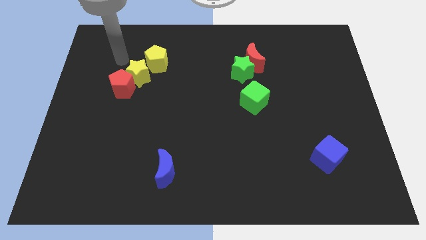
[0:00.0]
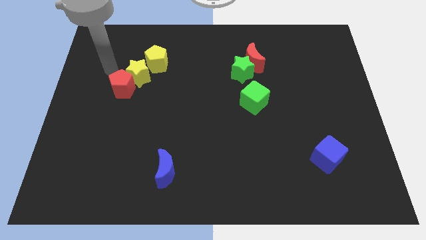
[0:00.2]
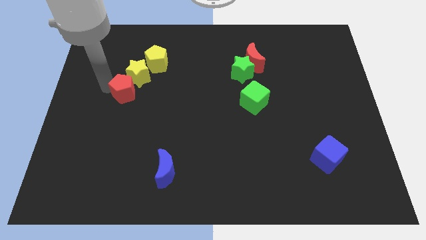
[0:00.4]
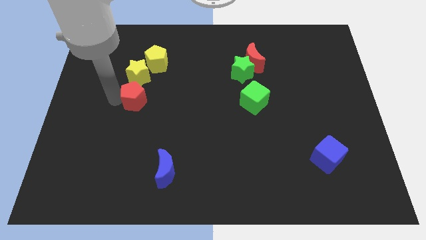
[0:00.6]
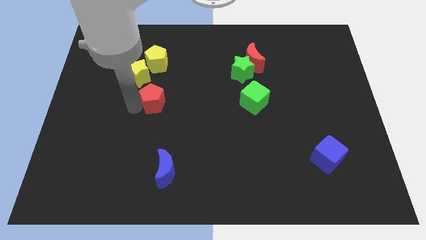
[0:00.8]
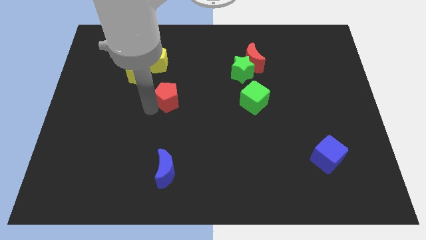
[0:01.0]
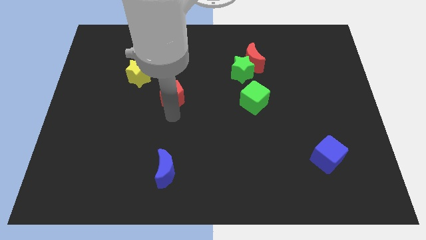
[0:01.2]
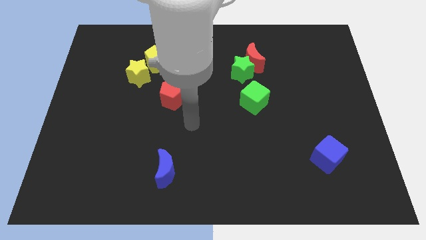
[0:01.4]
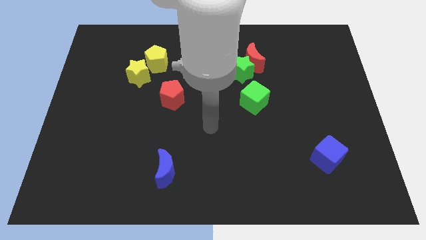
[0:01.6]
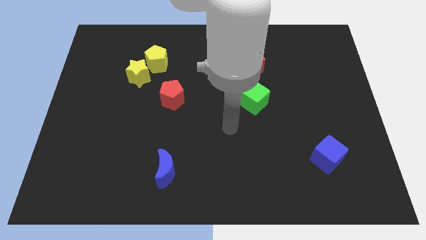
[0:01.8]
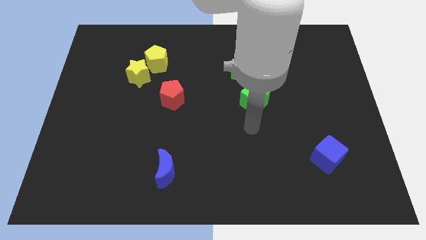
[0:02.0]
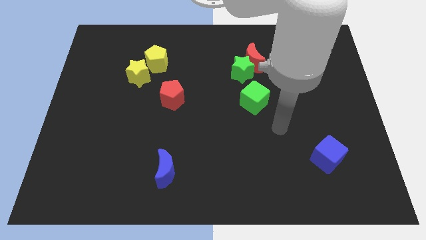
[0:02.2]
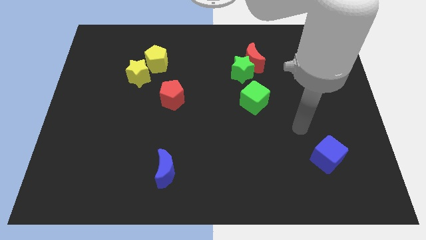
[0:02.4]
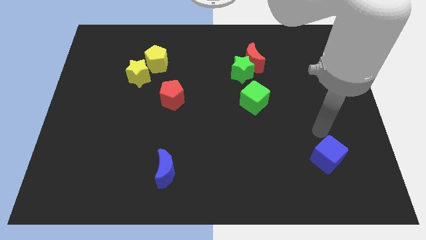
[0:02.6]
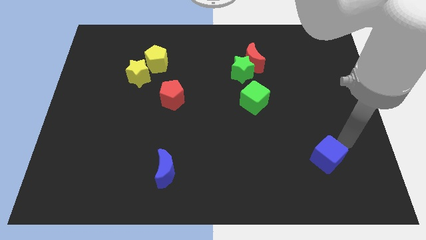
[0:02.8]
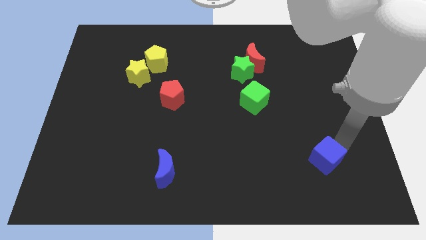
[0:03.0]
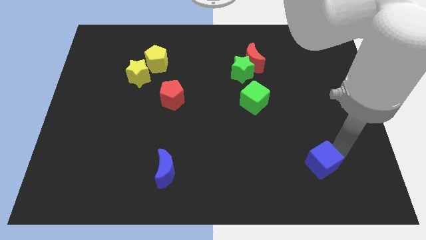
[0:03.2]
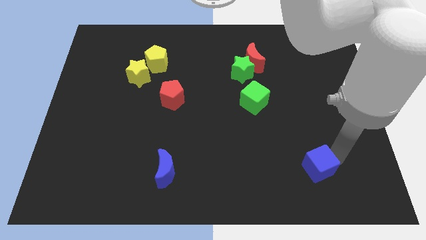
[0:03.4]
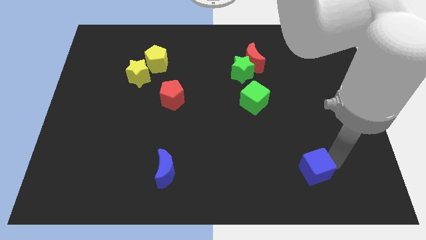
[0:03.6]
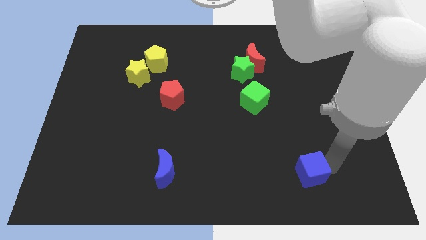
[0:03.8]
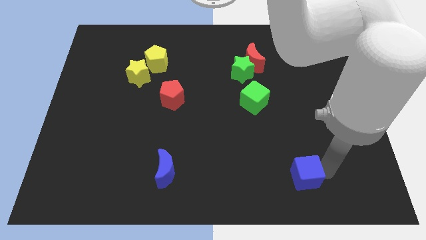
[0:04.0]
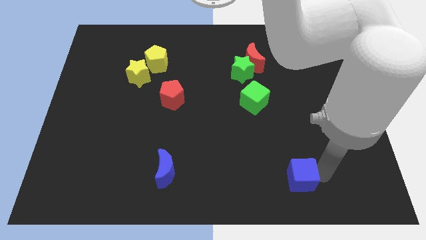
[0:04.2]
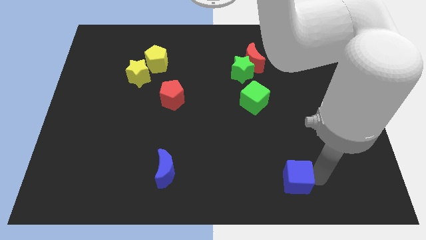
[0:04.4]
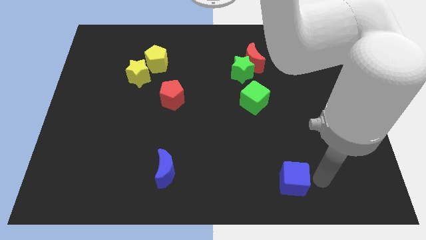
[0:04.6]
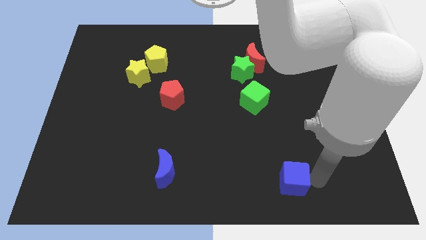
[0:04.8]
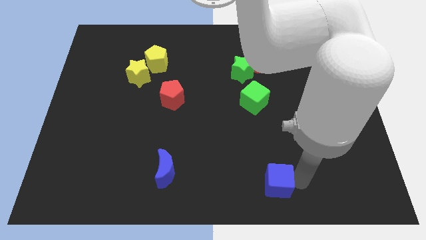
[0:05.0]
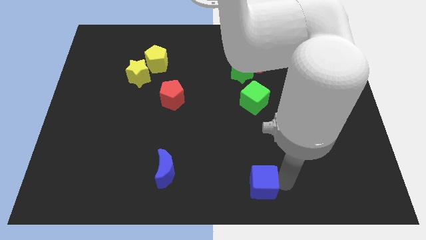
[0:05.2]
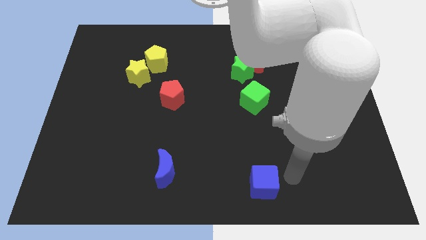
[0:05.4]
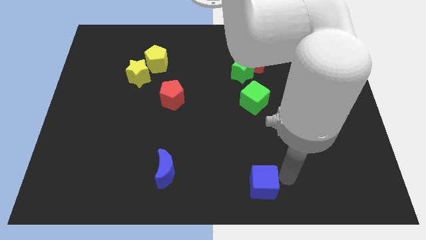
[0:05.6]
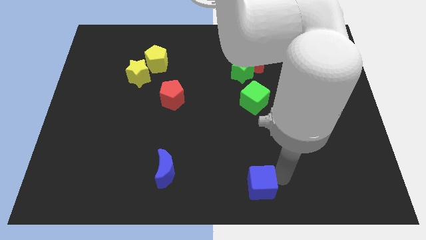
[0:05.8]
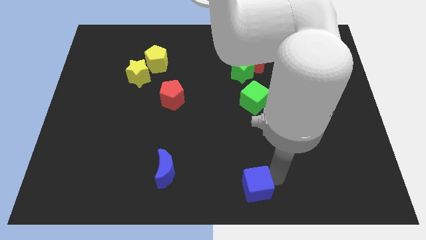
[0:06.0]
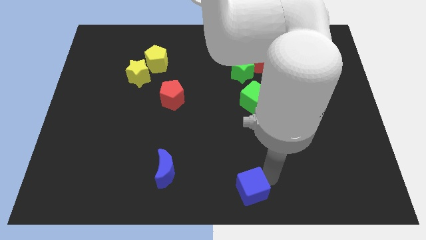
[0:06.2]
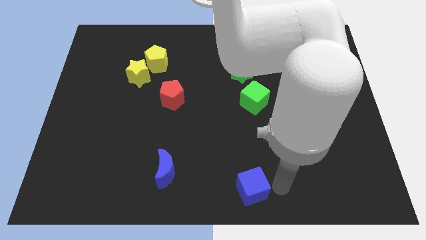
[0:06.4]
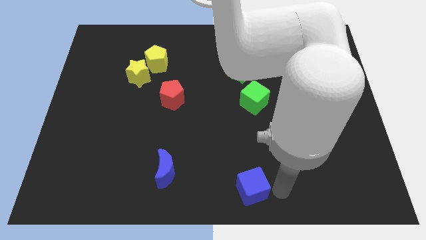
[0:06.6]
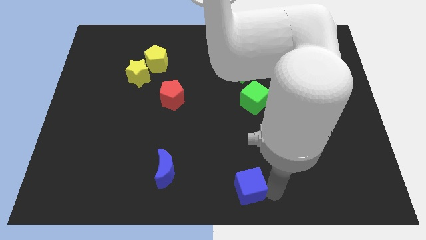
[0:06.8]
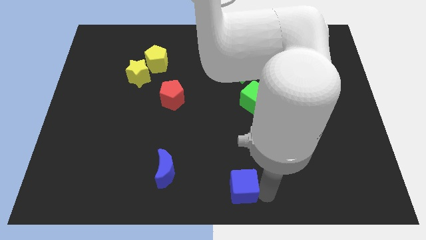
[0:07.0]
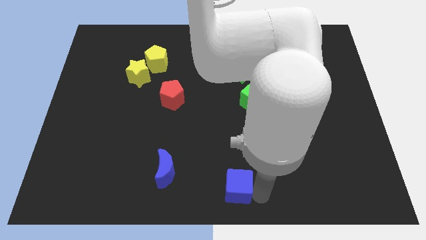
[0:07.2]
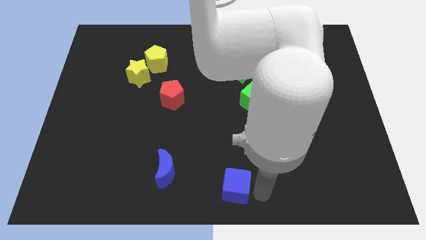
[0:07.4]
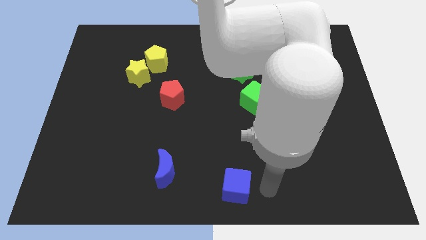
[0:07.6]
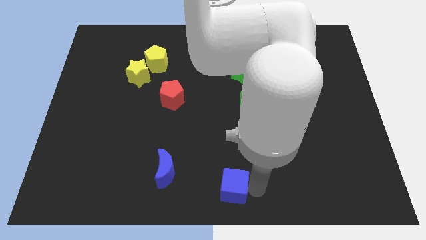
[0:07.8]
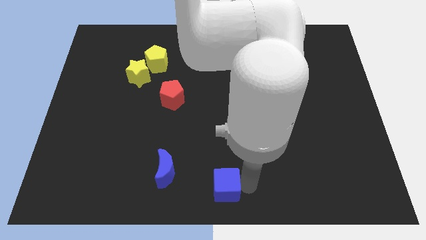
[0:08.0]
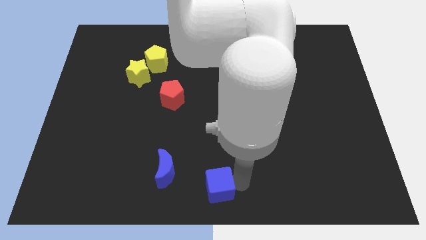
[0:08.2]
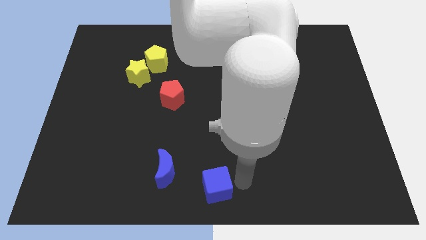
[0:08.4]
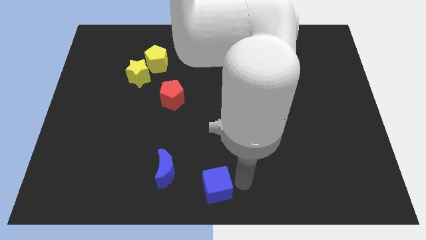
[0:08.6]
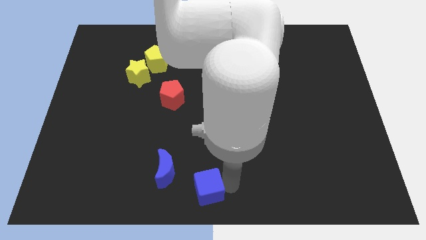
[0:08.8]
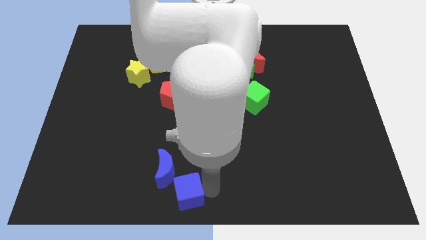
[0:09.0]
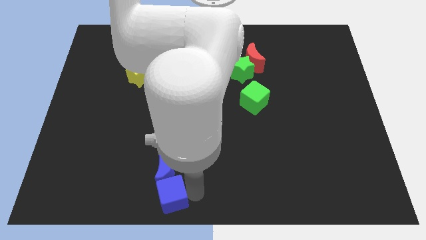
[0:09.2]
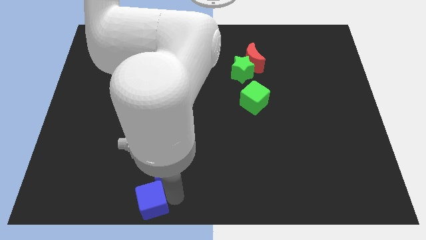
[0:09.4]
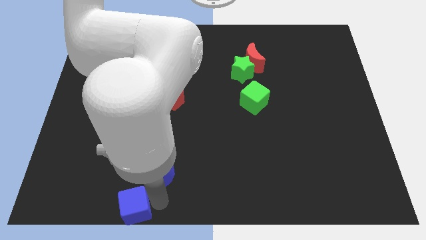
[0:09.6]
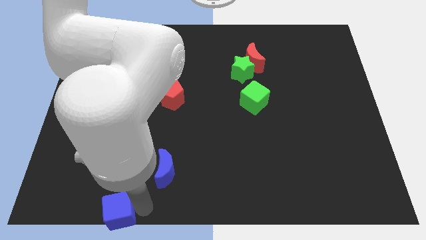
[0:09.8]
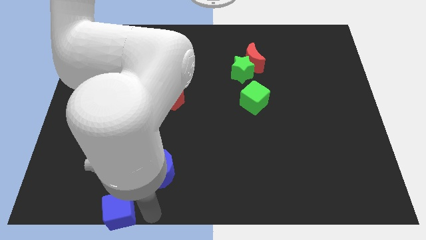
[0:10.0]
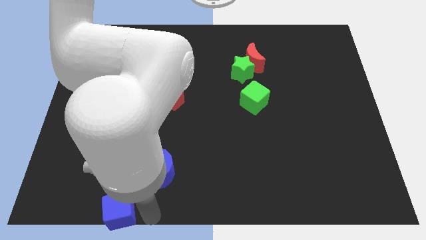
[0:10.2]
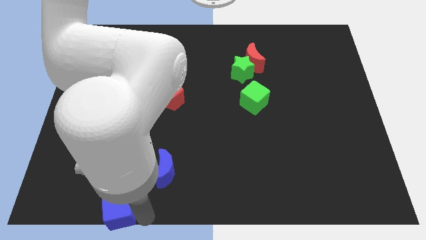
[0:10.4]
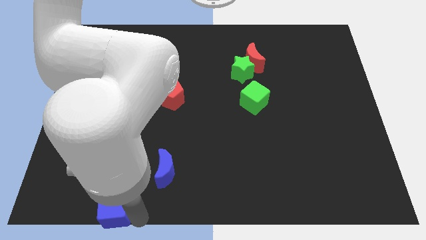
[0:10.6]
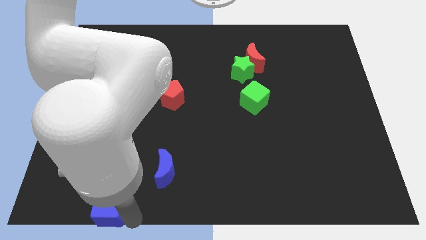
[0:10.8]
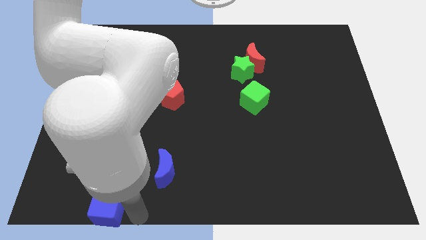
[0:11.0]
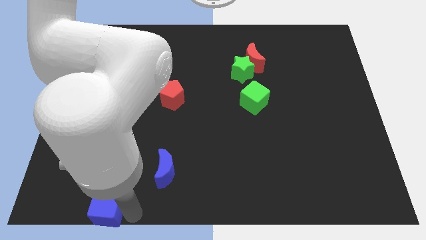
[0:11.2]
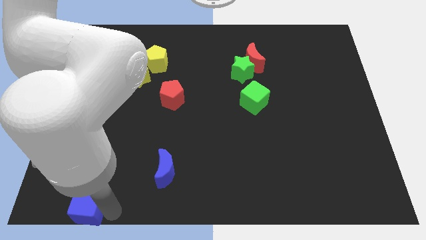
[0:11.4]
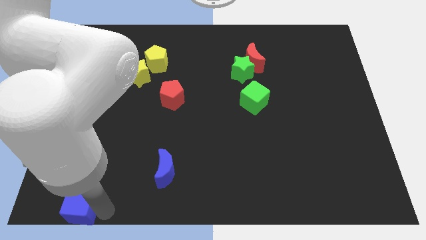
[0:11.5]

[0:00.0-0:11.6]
move the blue cube to the bottom left of the board
